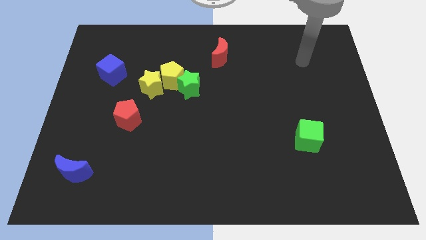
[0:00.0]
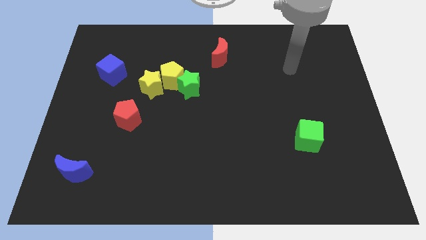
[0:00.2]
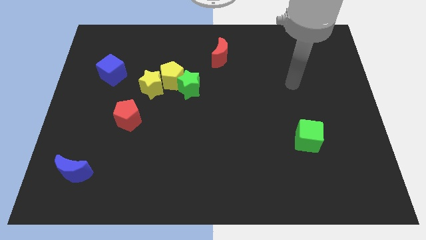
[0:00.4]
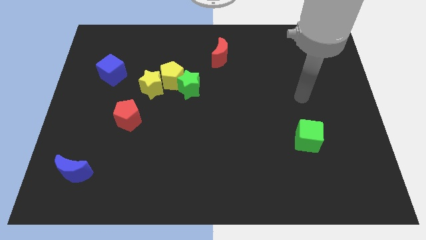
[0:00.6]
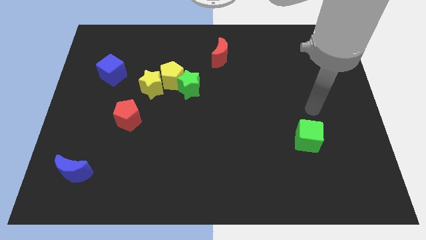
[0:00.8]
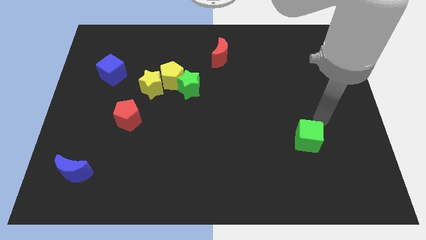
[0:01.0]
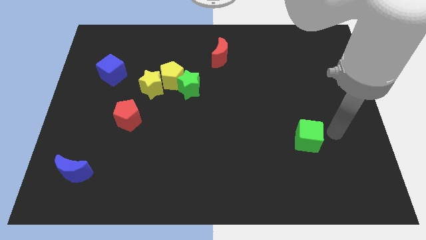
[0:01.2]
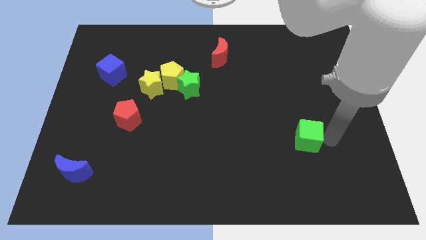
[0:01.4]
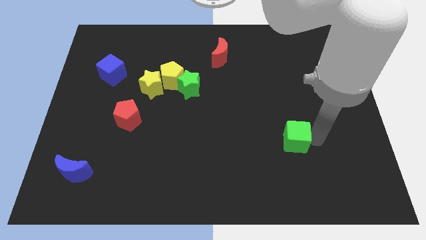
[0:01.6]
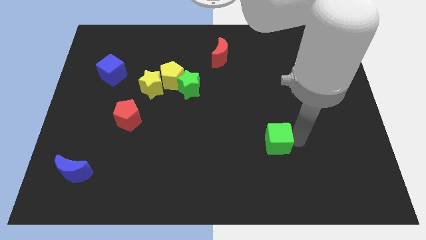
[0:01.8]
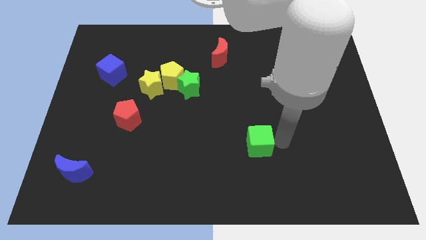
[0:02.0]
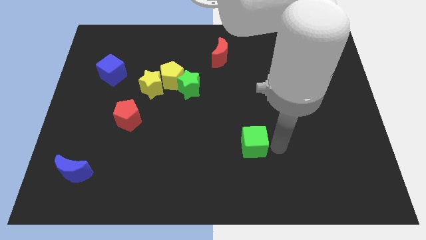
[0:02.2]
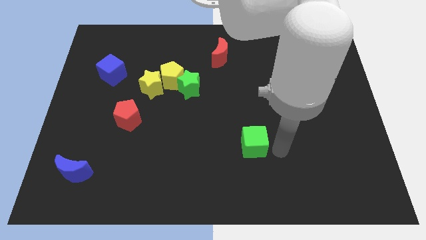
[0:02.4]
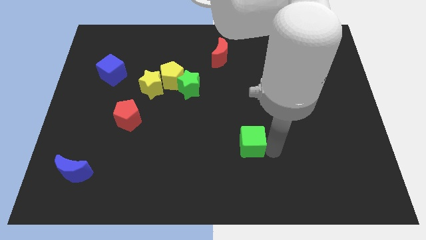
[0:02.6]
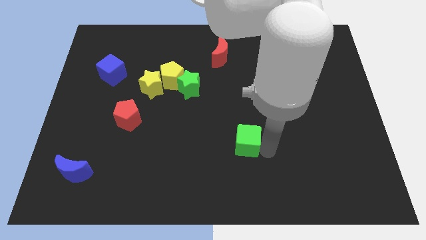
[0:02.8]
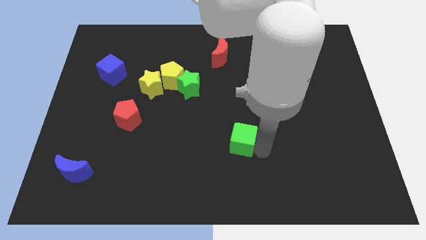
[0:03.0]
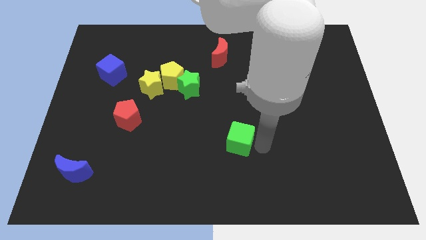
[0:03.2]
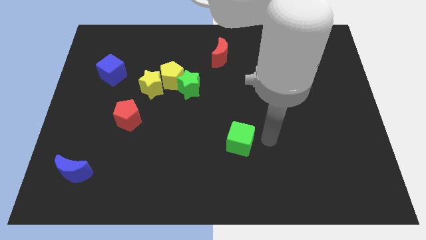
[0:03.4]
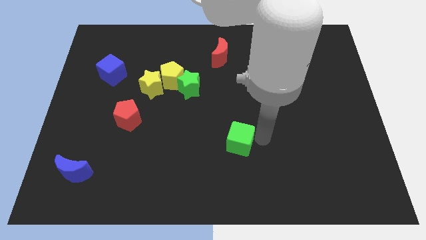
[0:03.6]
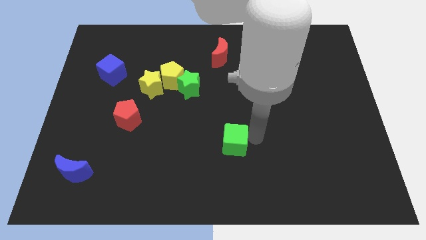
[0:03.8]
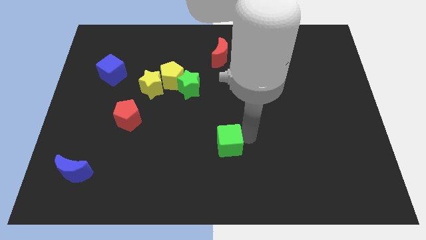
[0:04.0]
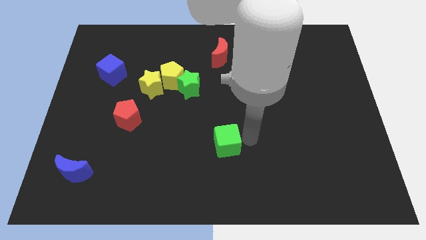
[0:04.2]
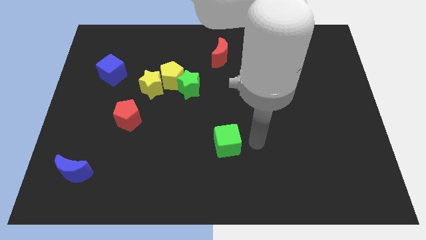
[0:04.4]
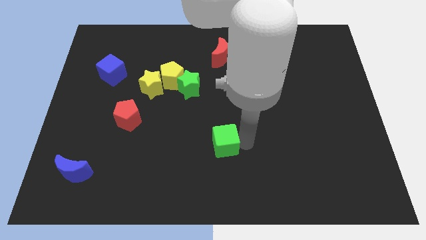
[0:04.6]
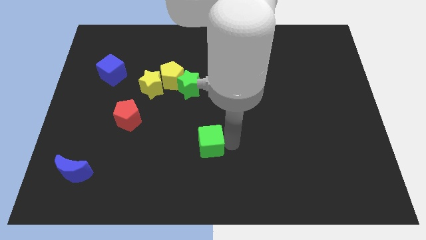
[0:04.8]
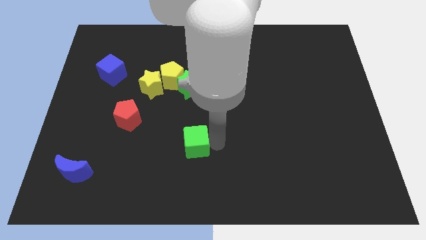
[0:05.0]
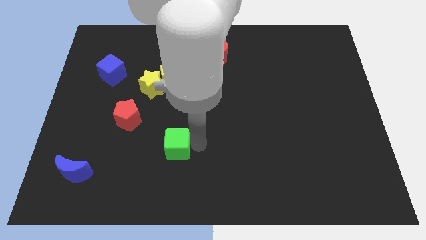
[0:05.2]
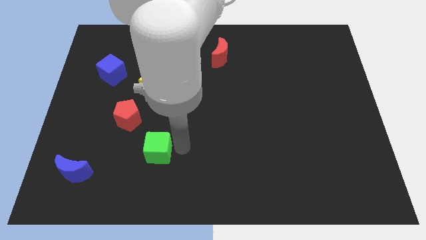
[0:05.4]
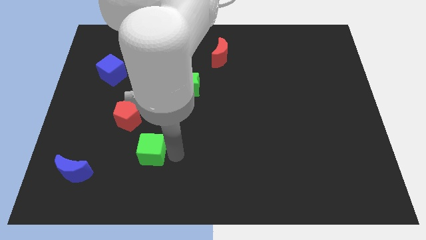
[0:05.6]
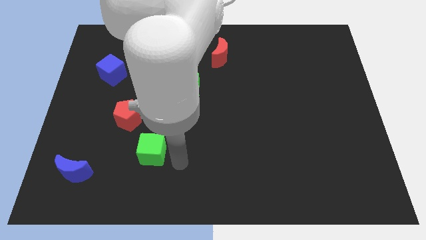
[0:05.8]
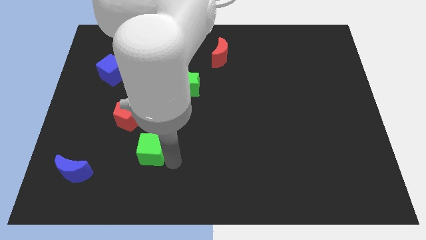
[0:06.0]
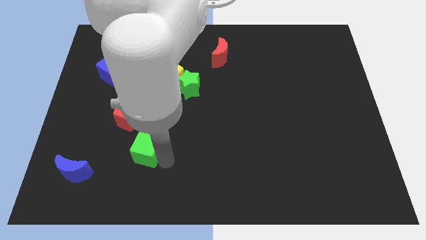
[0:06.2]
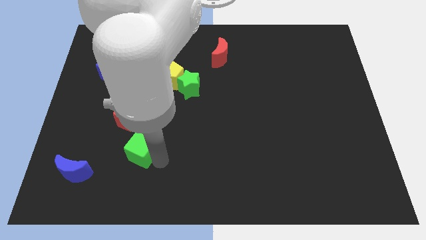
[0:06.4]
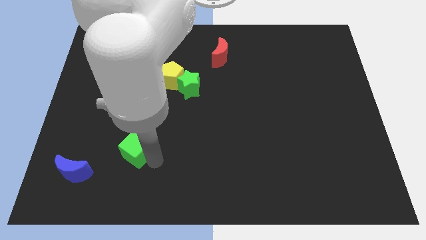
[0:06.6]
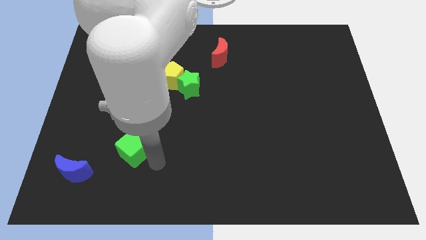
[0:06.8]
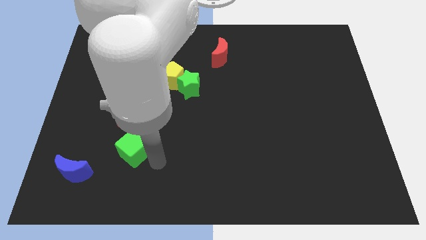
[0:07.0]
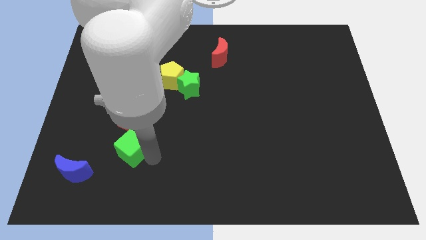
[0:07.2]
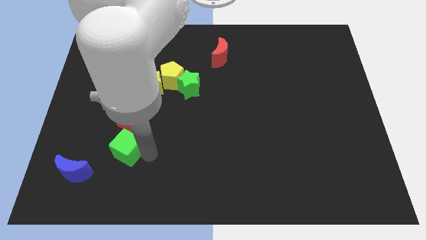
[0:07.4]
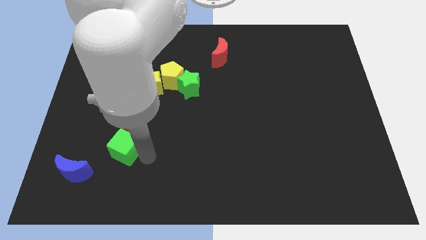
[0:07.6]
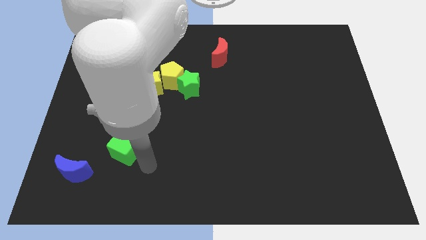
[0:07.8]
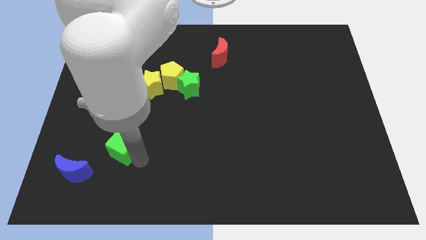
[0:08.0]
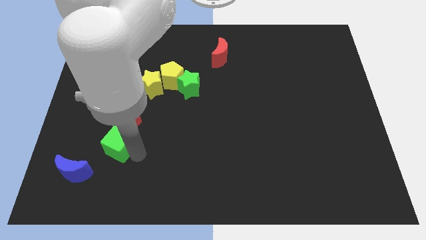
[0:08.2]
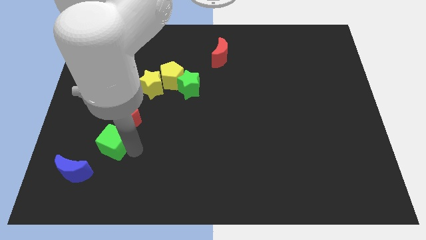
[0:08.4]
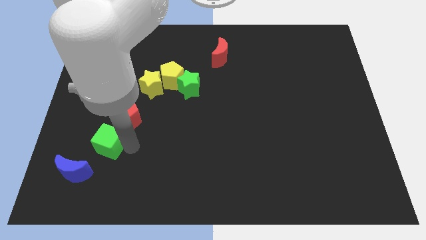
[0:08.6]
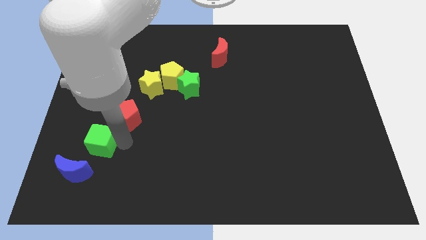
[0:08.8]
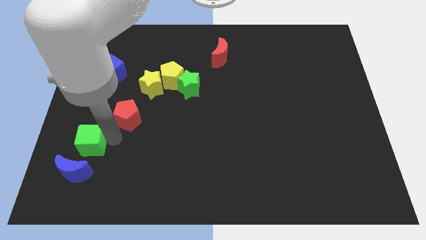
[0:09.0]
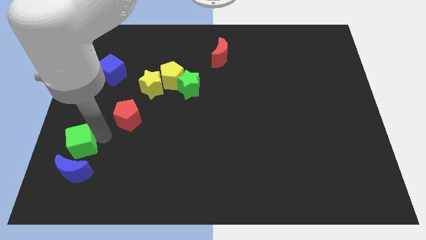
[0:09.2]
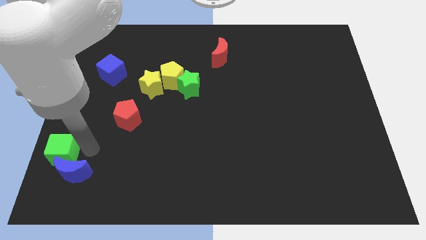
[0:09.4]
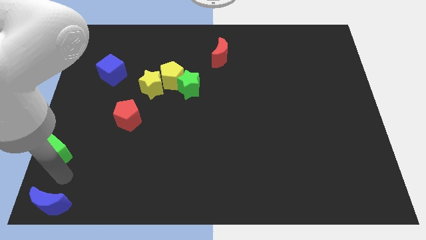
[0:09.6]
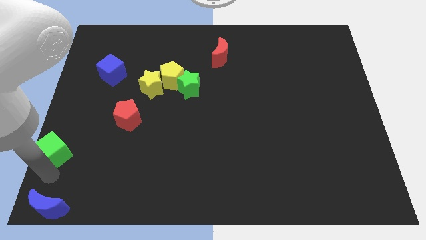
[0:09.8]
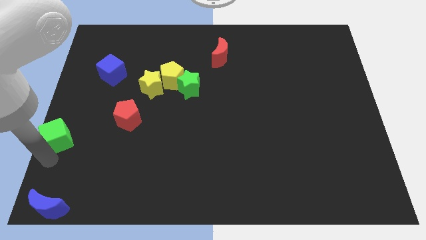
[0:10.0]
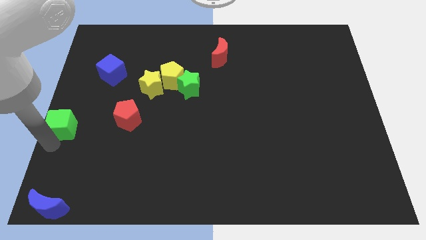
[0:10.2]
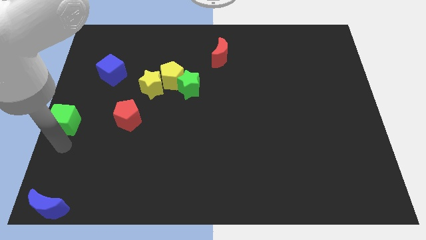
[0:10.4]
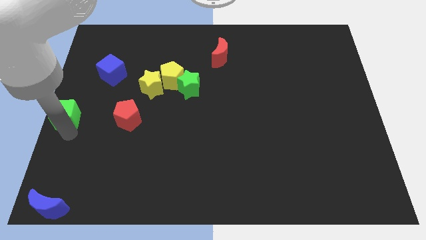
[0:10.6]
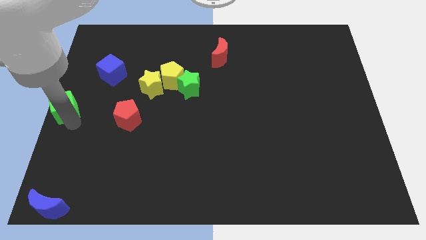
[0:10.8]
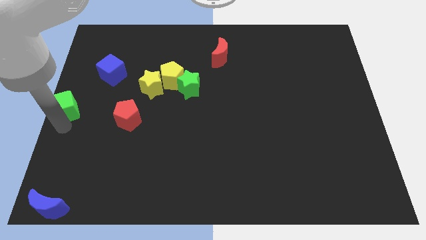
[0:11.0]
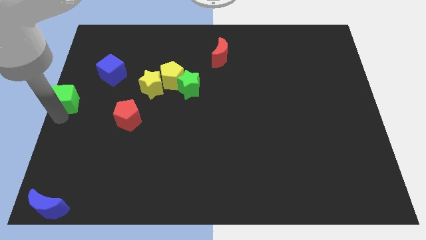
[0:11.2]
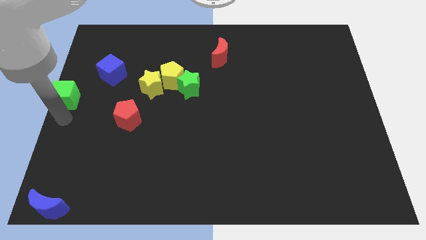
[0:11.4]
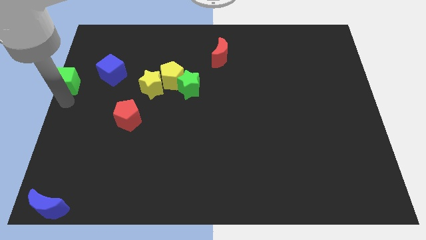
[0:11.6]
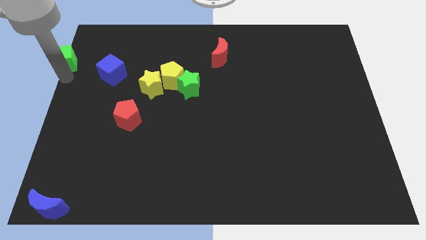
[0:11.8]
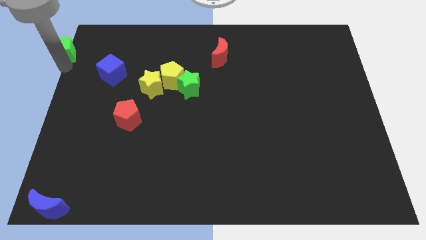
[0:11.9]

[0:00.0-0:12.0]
slide the green cube to the upper left corner
